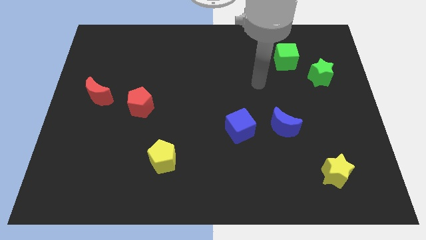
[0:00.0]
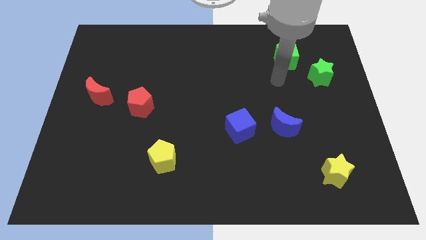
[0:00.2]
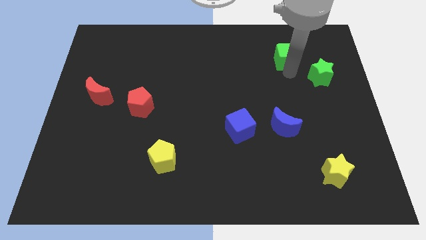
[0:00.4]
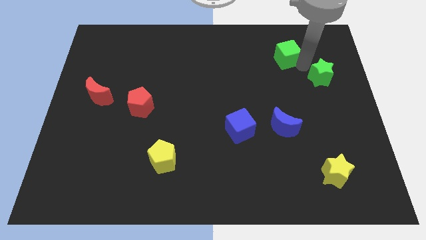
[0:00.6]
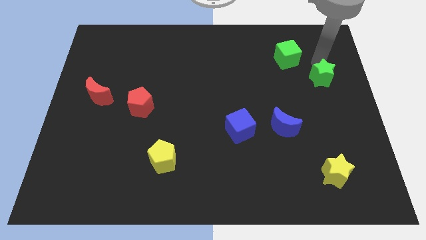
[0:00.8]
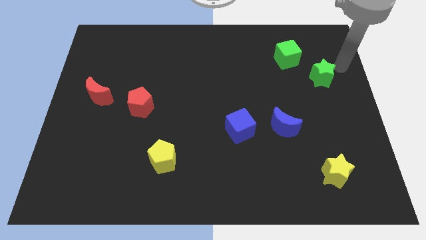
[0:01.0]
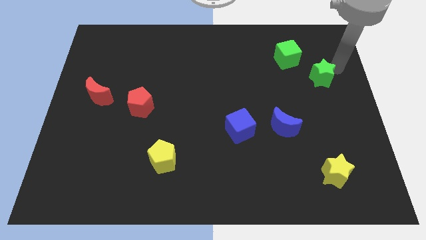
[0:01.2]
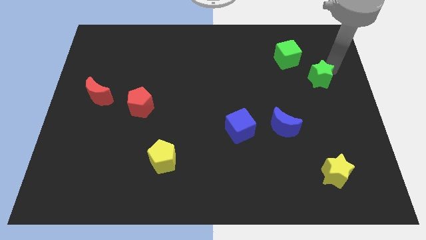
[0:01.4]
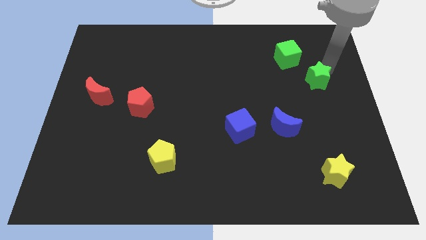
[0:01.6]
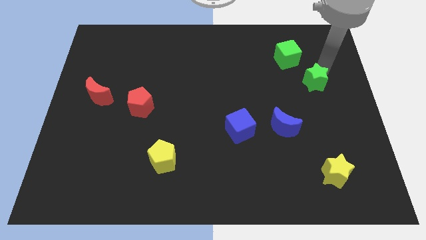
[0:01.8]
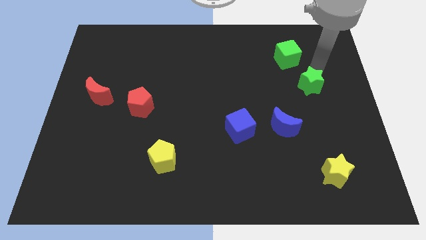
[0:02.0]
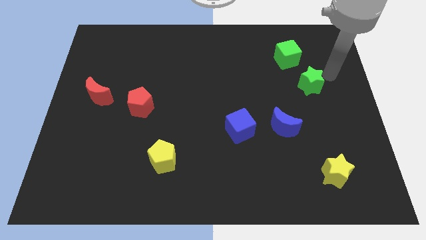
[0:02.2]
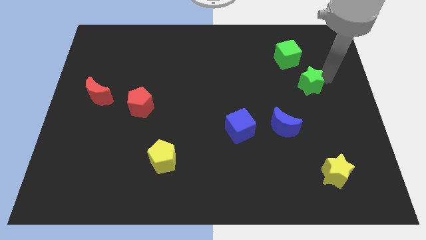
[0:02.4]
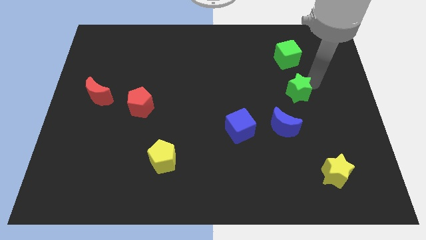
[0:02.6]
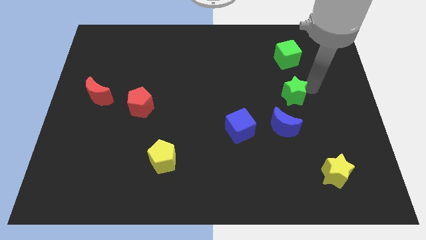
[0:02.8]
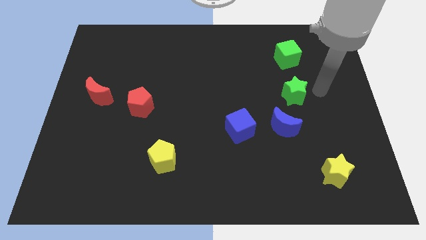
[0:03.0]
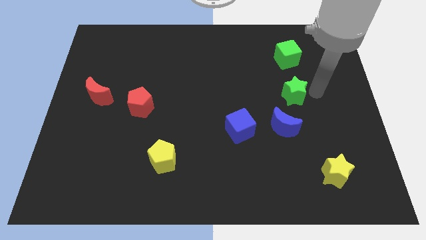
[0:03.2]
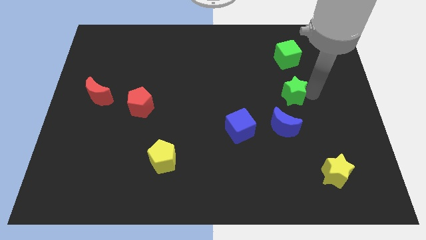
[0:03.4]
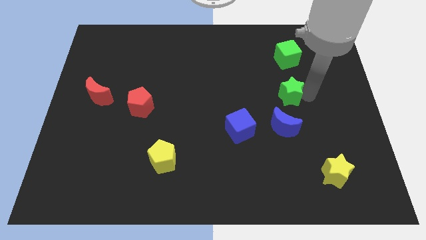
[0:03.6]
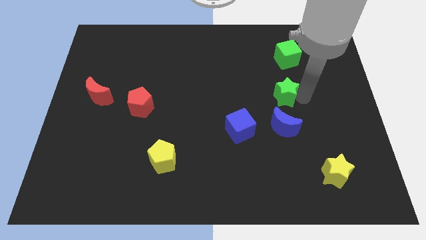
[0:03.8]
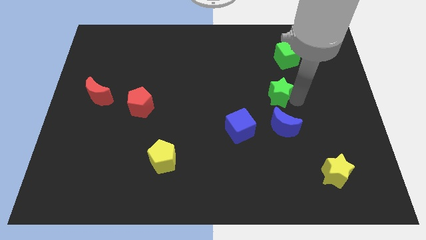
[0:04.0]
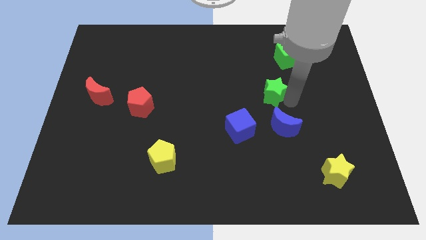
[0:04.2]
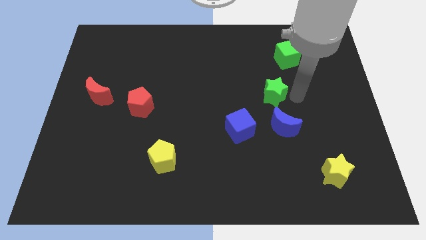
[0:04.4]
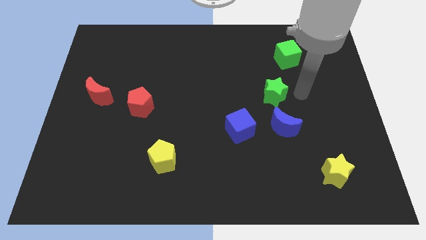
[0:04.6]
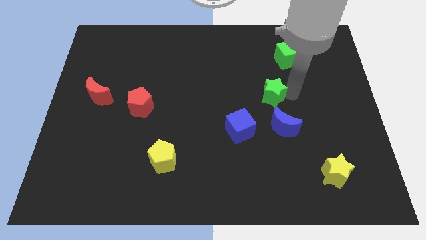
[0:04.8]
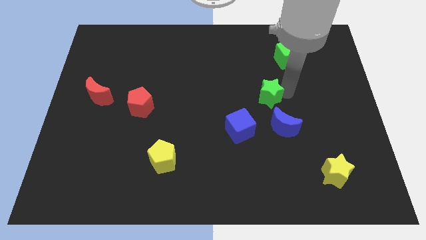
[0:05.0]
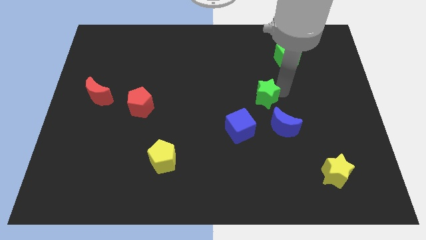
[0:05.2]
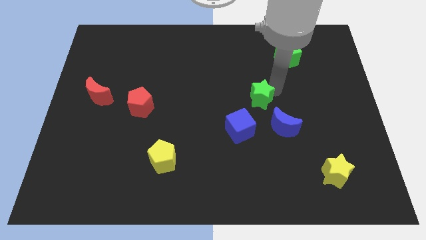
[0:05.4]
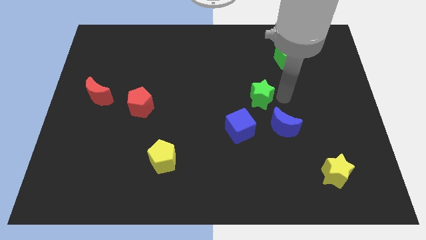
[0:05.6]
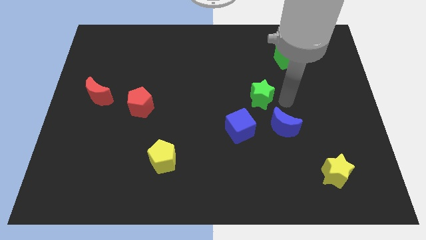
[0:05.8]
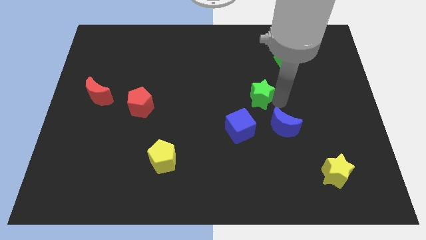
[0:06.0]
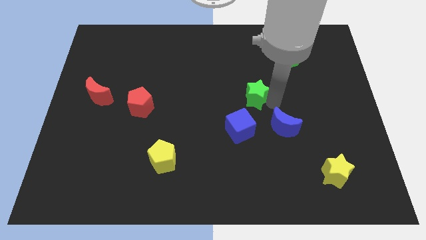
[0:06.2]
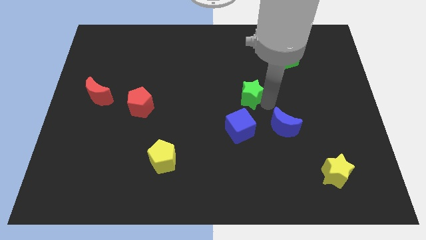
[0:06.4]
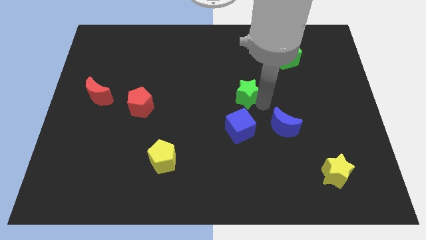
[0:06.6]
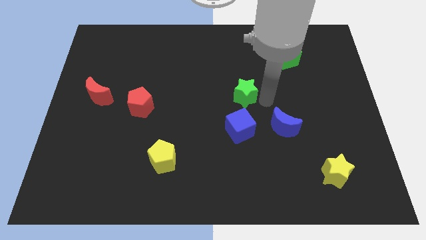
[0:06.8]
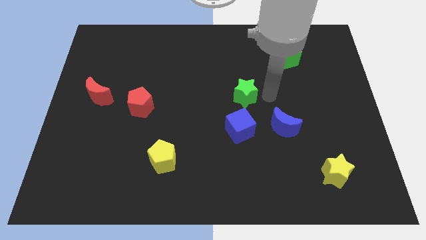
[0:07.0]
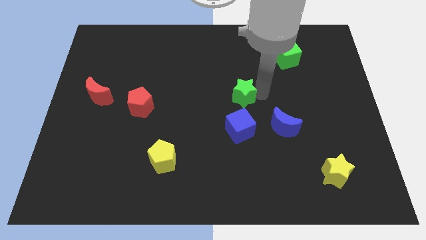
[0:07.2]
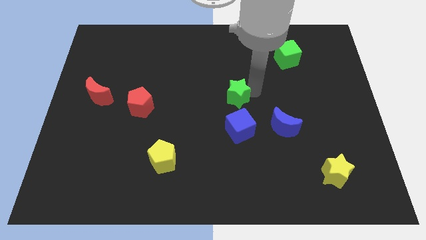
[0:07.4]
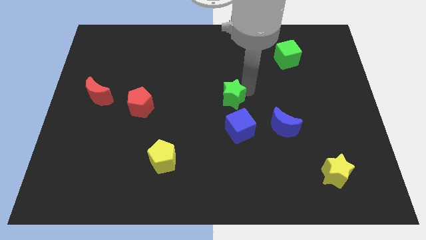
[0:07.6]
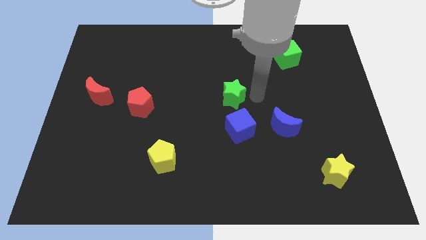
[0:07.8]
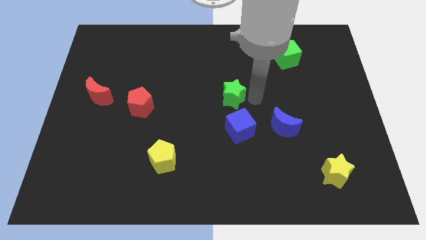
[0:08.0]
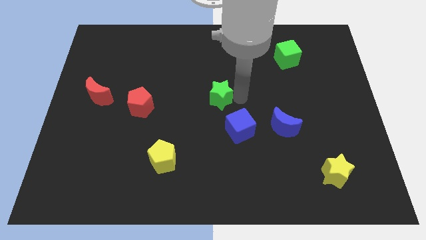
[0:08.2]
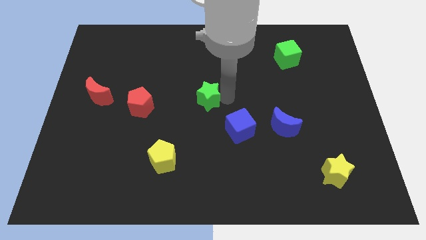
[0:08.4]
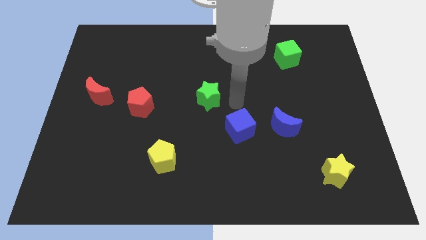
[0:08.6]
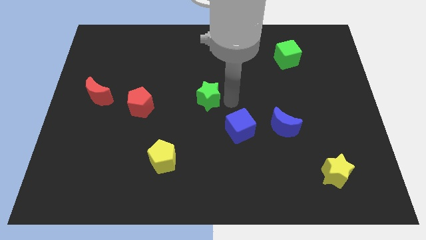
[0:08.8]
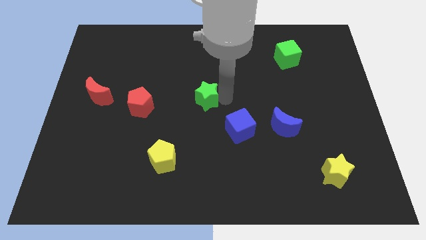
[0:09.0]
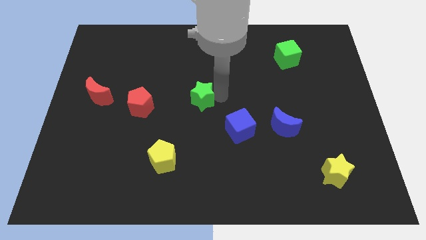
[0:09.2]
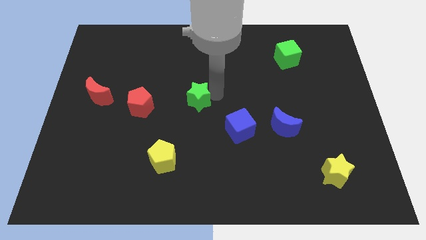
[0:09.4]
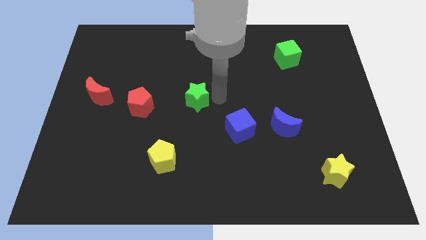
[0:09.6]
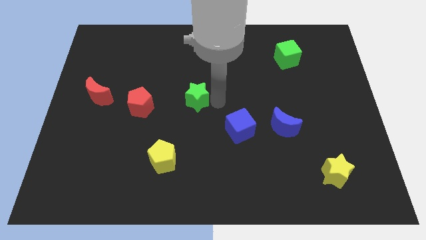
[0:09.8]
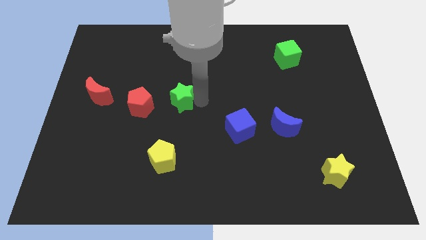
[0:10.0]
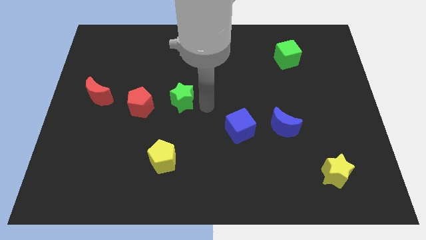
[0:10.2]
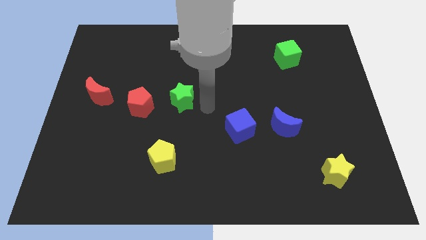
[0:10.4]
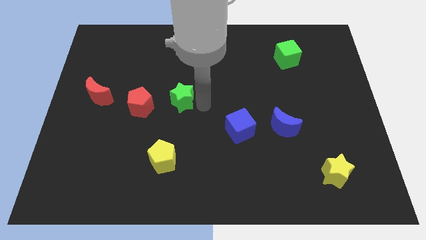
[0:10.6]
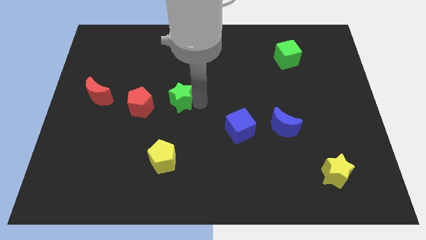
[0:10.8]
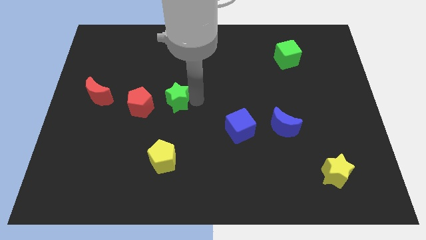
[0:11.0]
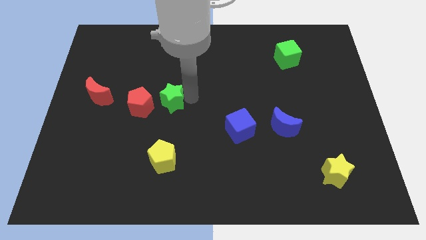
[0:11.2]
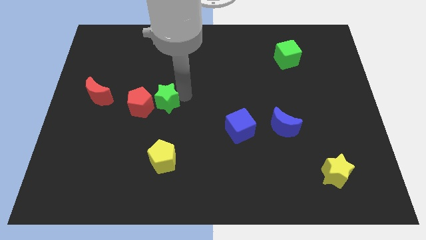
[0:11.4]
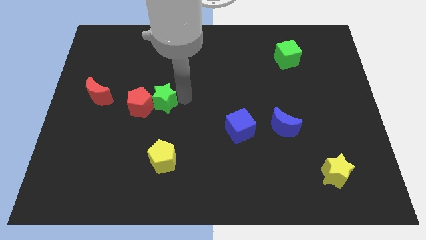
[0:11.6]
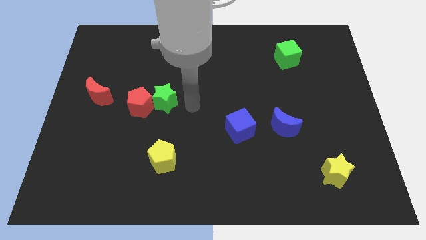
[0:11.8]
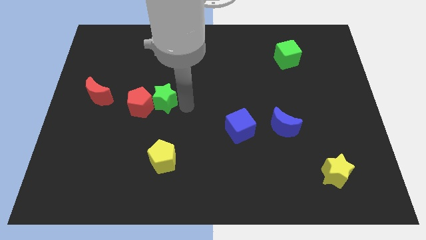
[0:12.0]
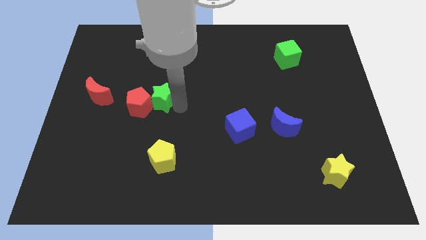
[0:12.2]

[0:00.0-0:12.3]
slide the green star to the right of the red moon
